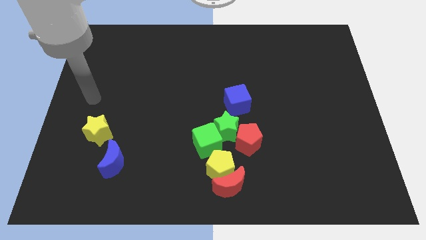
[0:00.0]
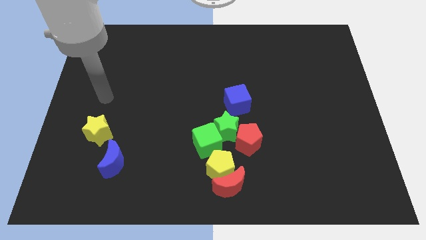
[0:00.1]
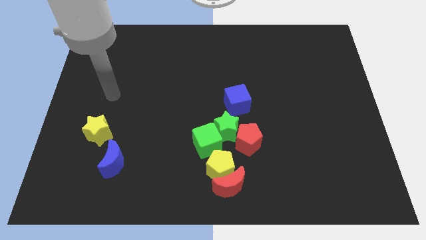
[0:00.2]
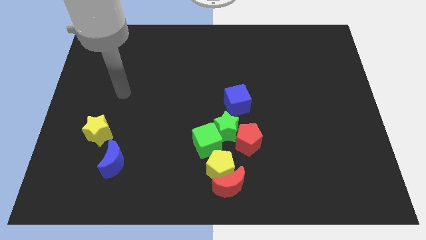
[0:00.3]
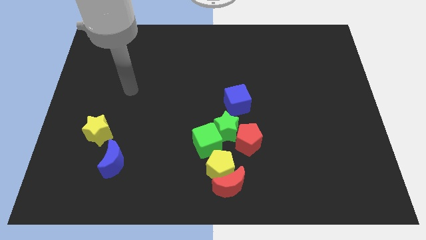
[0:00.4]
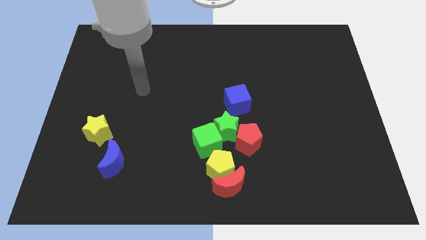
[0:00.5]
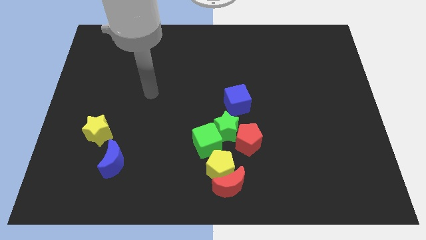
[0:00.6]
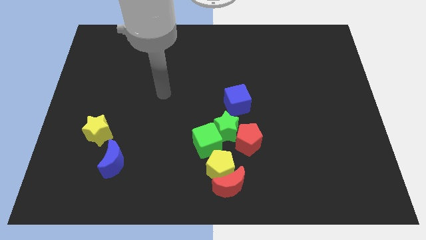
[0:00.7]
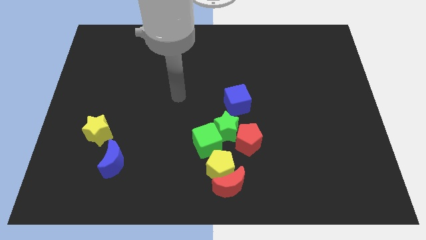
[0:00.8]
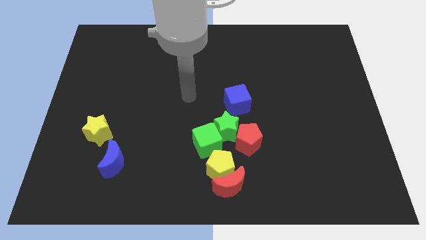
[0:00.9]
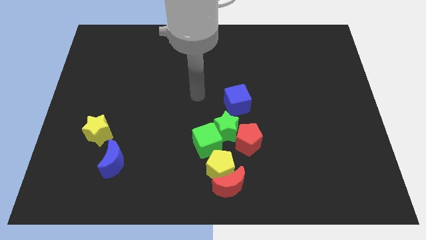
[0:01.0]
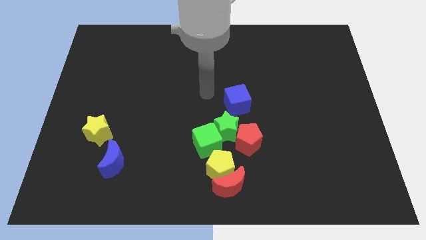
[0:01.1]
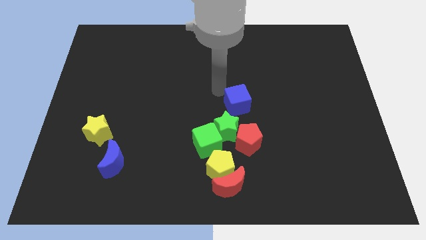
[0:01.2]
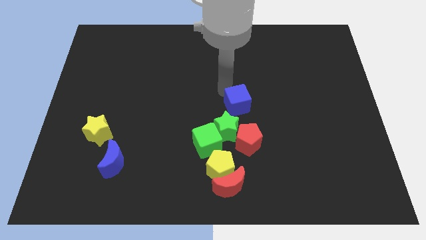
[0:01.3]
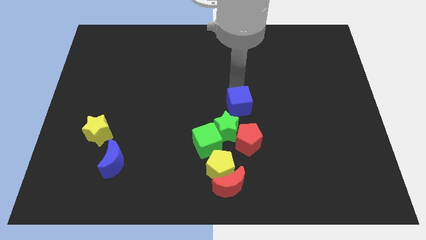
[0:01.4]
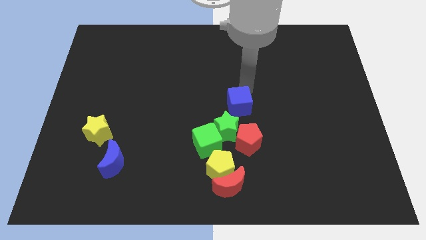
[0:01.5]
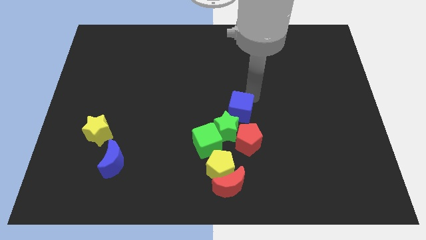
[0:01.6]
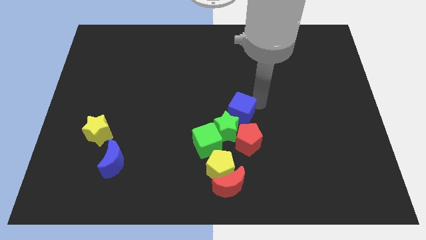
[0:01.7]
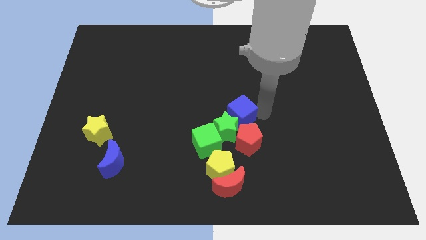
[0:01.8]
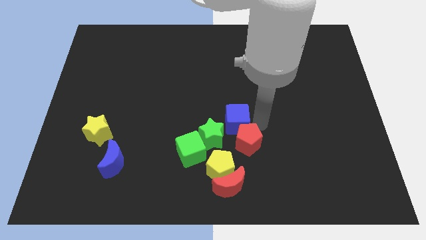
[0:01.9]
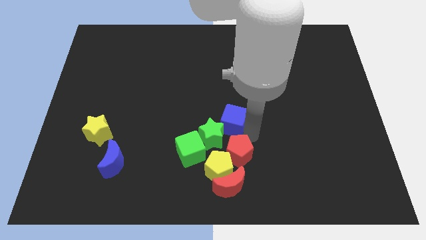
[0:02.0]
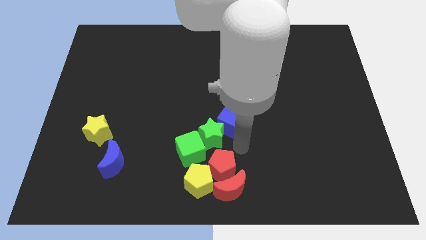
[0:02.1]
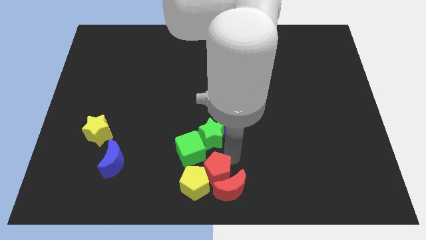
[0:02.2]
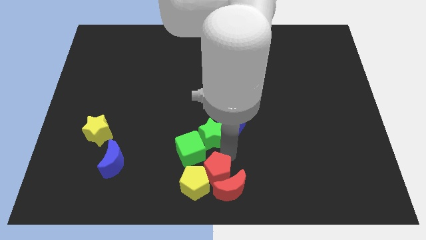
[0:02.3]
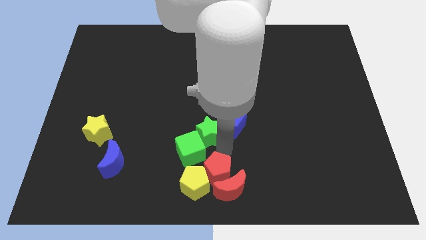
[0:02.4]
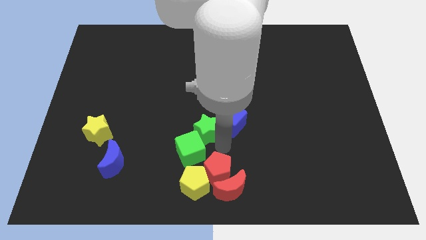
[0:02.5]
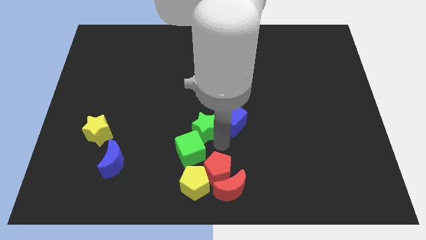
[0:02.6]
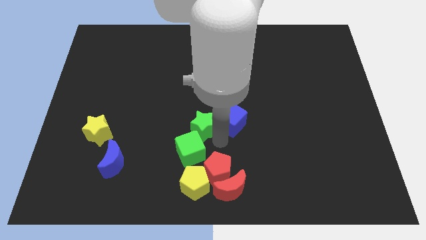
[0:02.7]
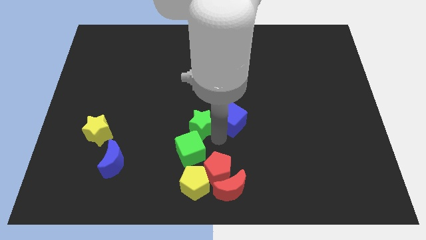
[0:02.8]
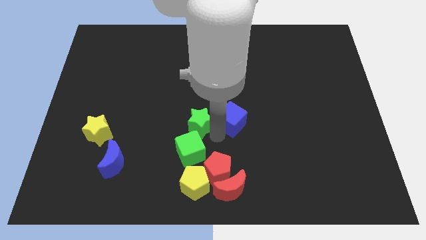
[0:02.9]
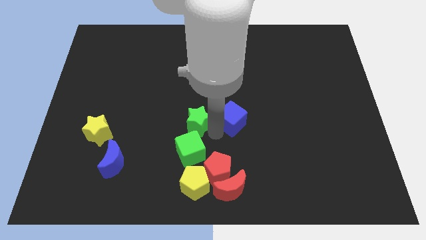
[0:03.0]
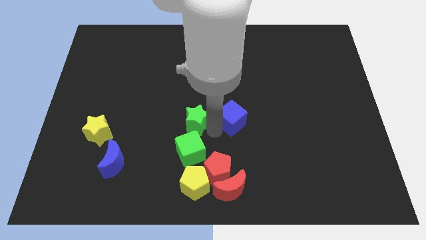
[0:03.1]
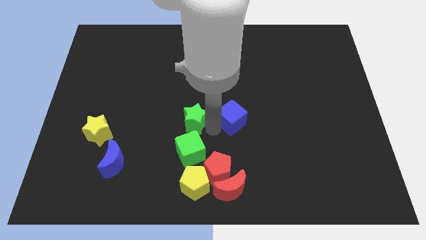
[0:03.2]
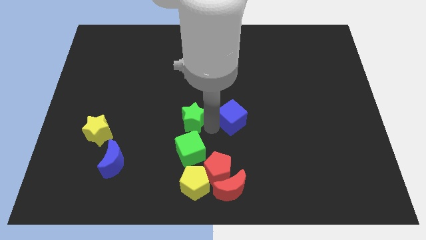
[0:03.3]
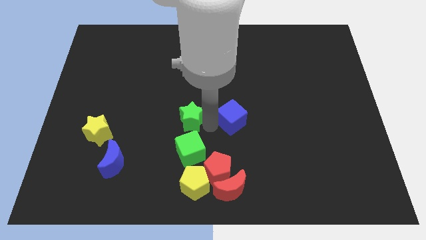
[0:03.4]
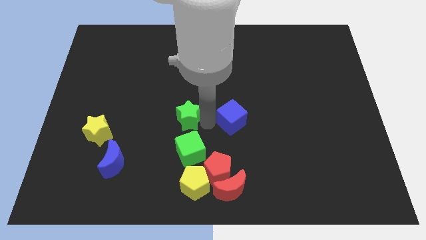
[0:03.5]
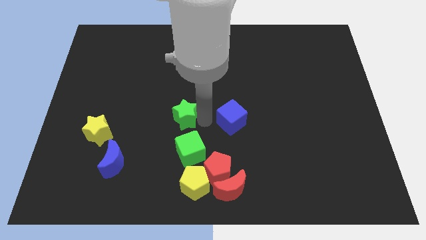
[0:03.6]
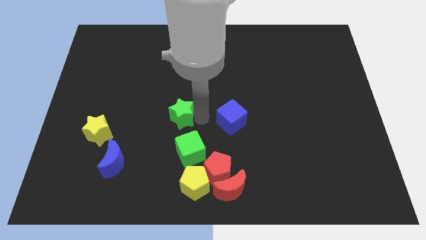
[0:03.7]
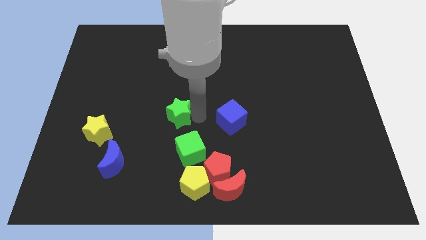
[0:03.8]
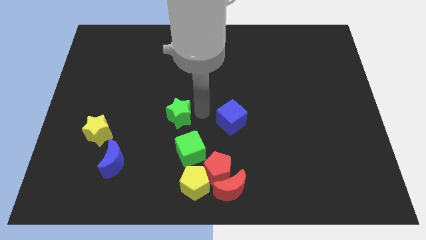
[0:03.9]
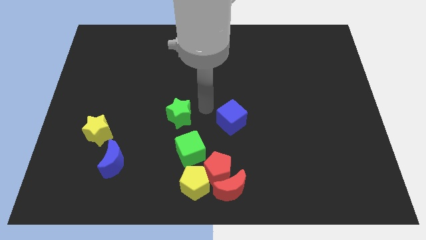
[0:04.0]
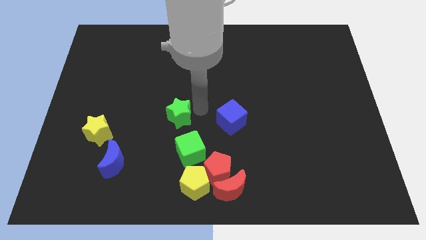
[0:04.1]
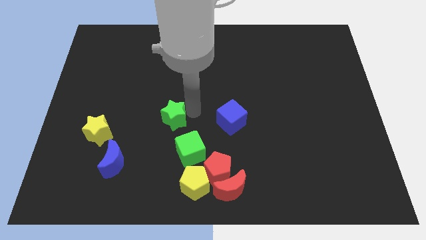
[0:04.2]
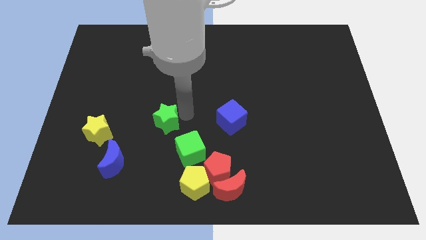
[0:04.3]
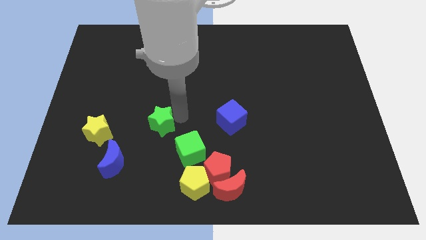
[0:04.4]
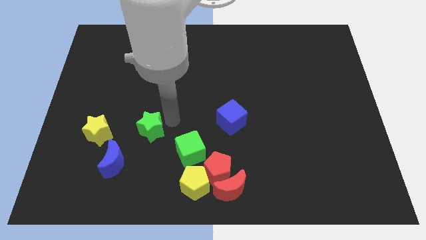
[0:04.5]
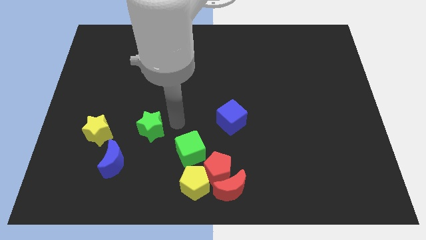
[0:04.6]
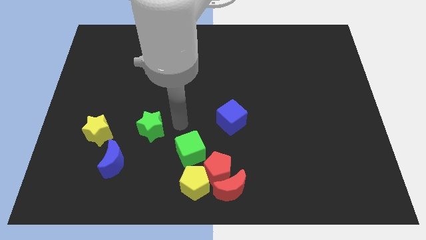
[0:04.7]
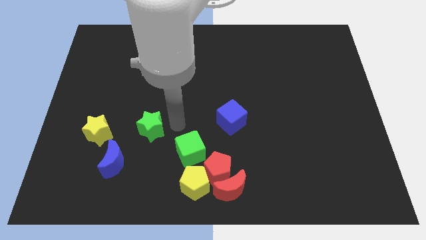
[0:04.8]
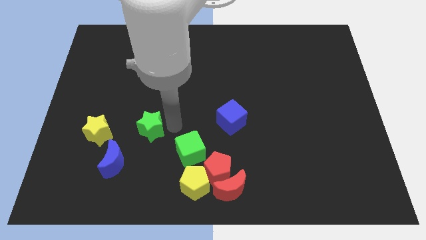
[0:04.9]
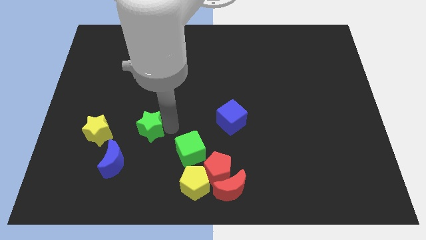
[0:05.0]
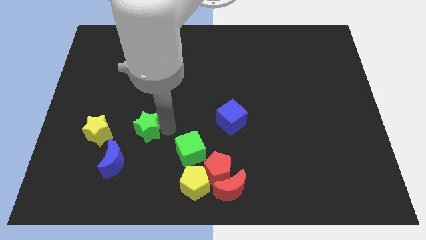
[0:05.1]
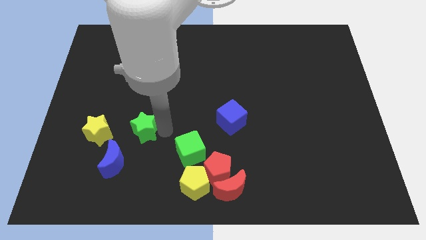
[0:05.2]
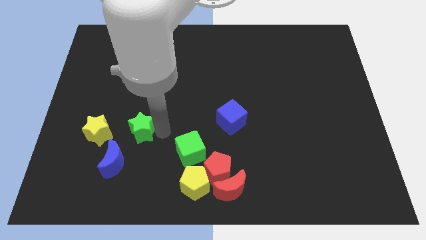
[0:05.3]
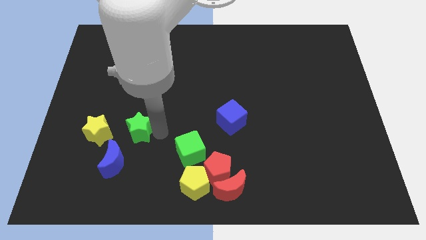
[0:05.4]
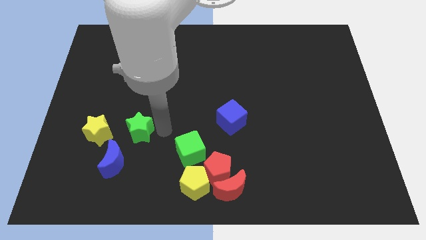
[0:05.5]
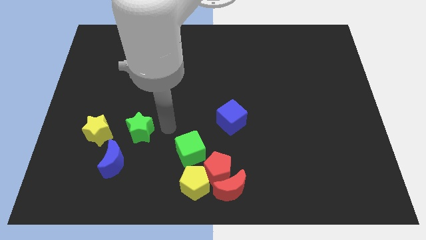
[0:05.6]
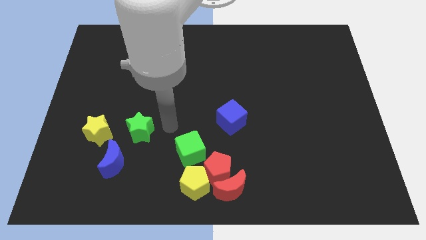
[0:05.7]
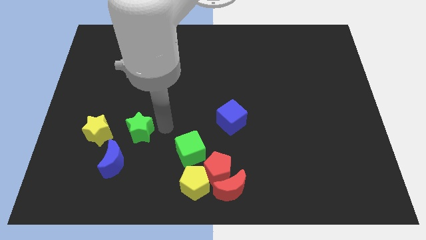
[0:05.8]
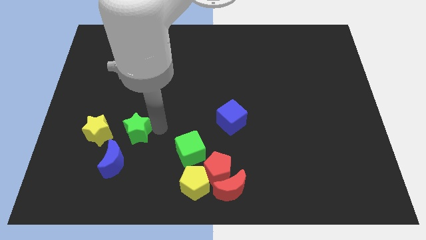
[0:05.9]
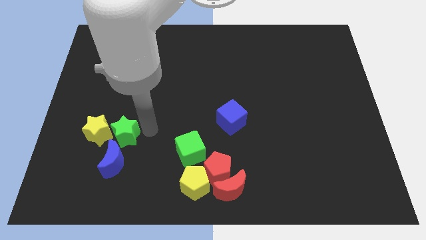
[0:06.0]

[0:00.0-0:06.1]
move the green star next to the yellow star
